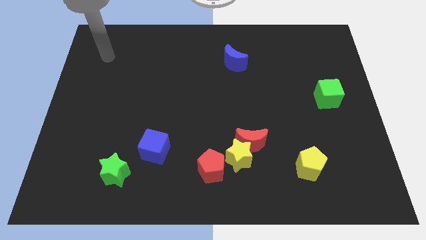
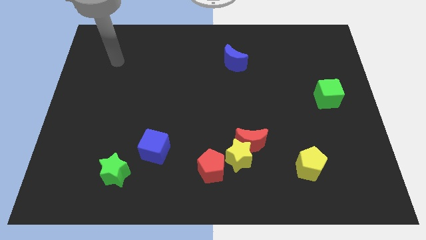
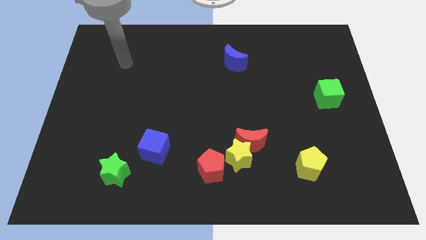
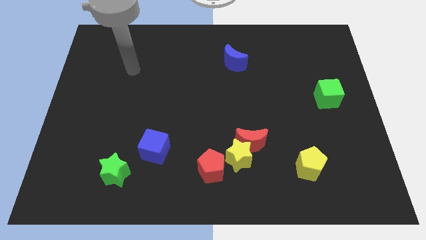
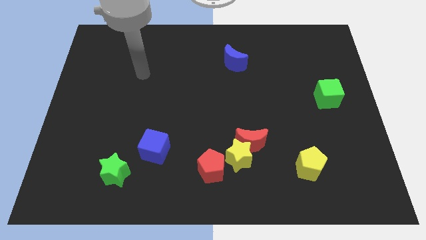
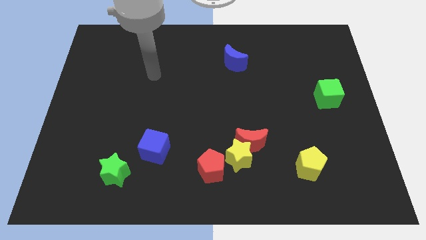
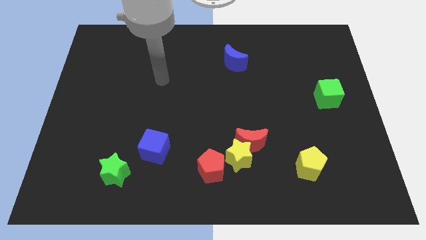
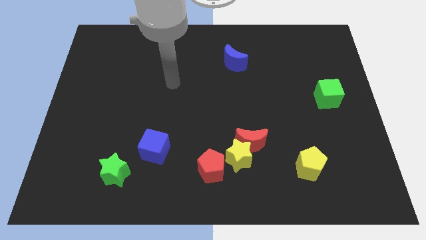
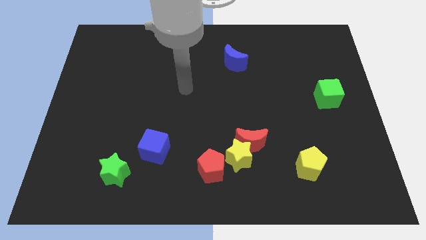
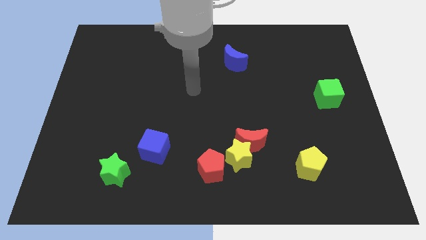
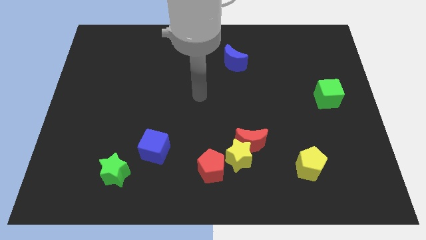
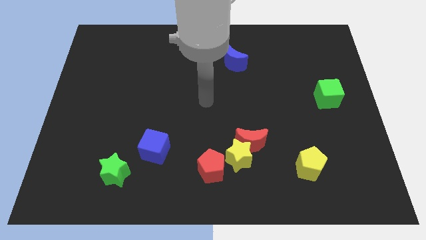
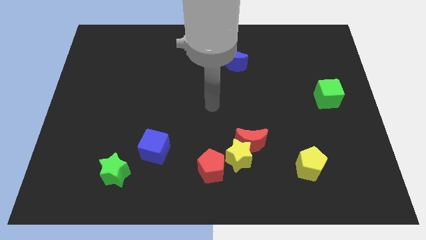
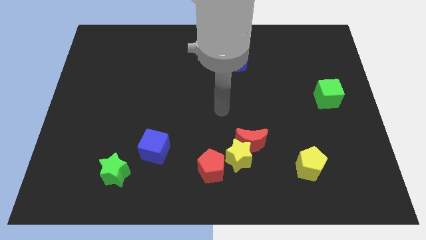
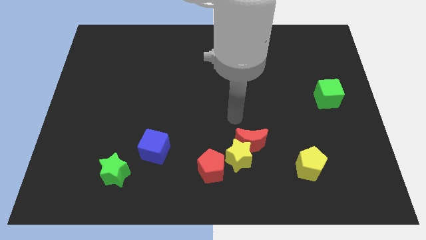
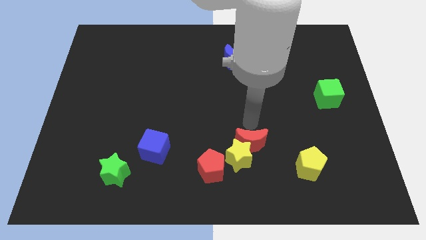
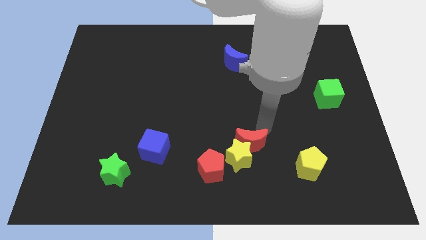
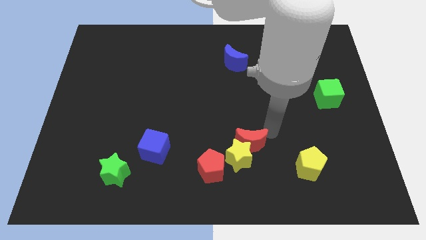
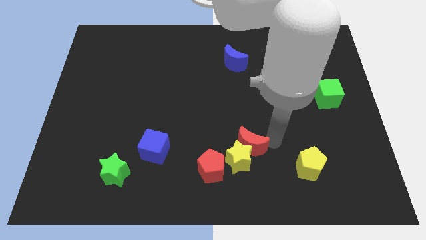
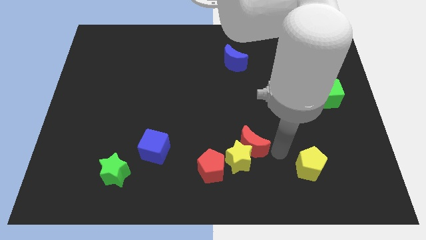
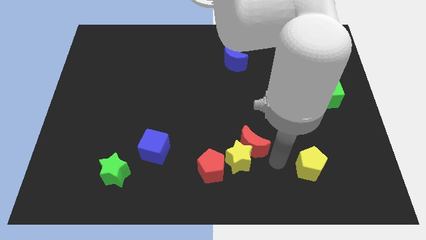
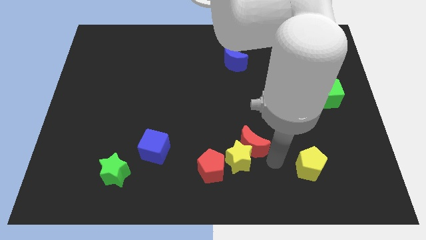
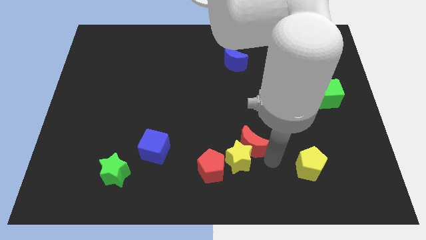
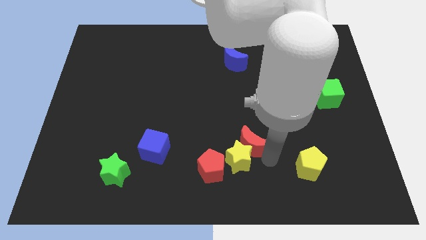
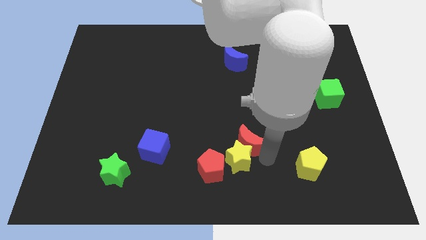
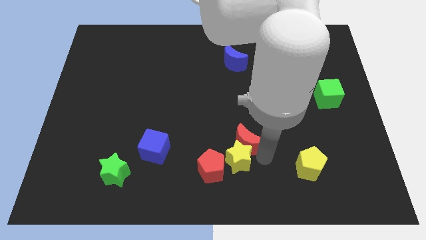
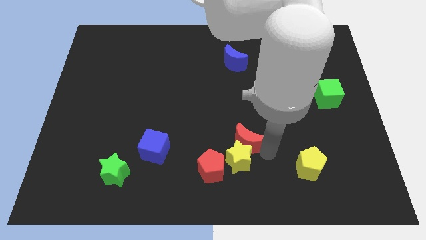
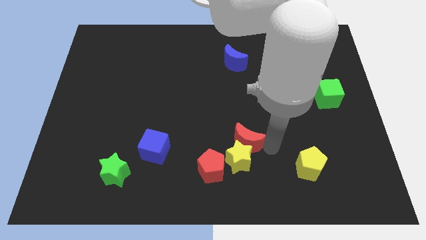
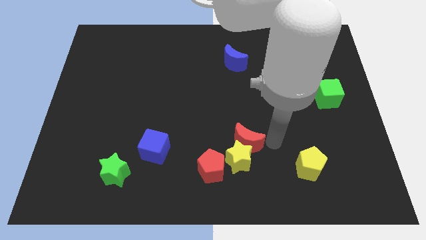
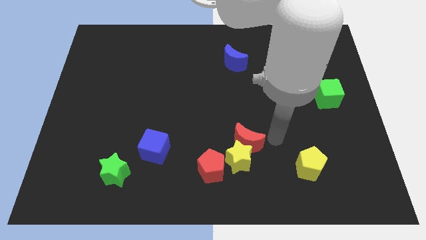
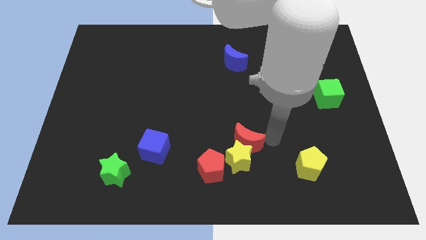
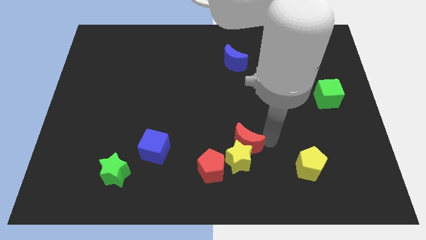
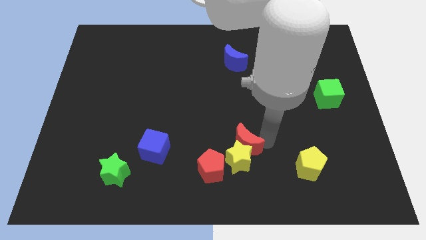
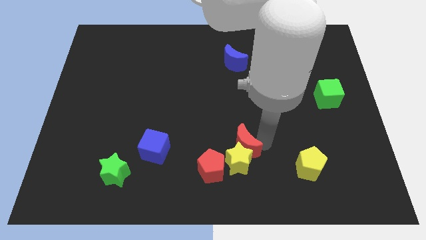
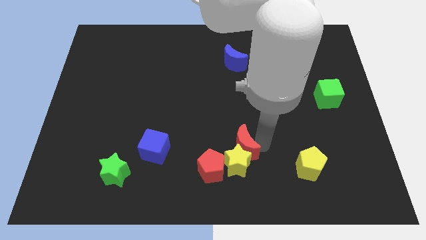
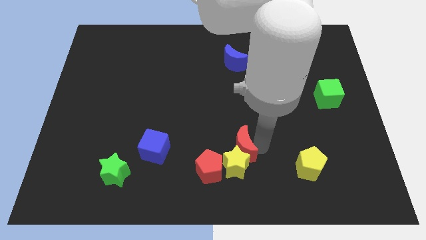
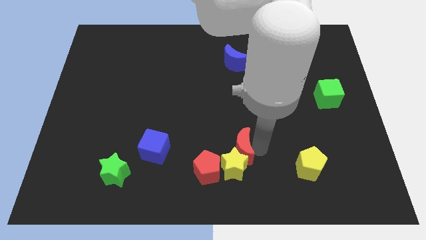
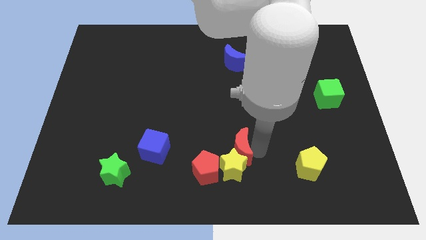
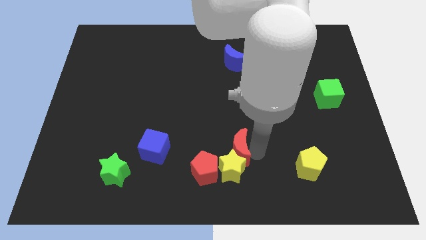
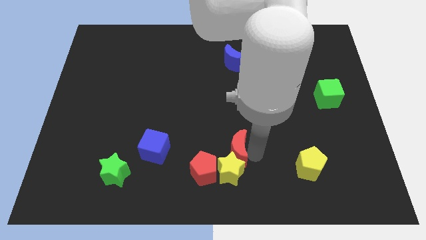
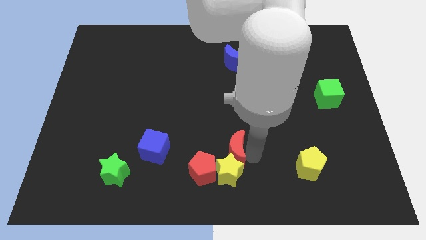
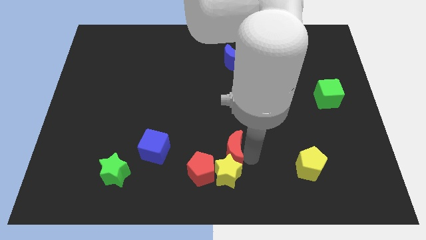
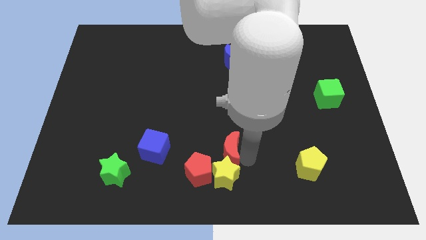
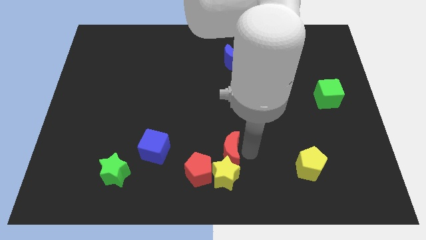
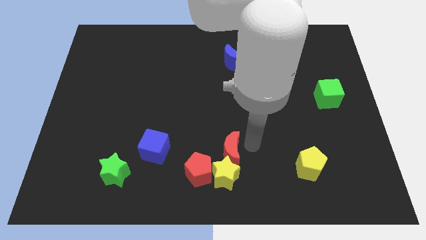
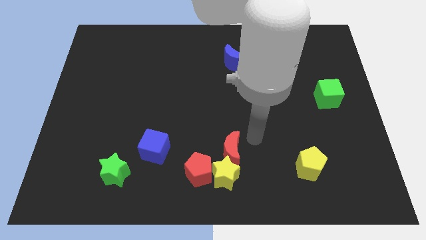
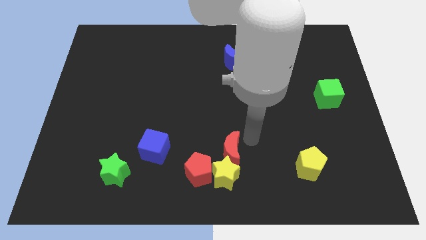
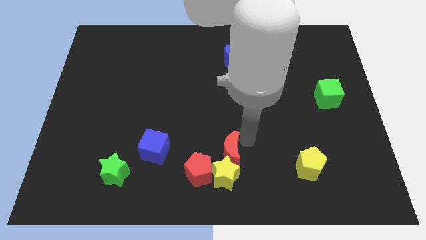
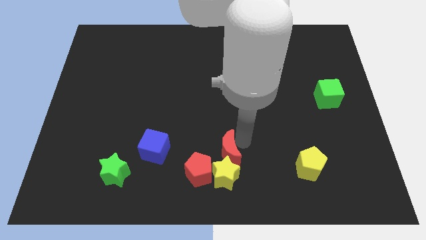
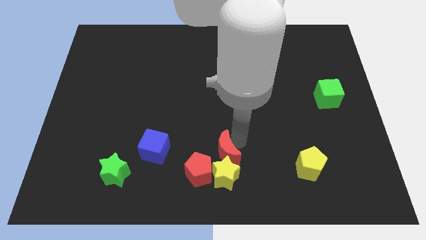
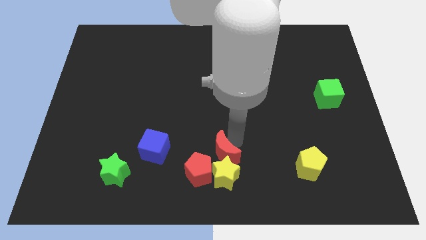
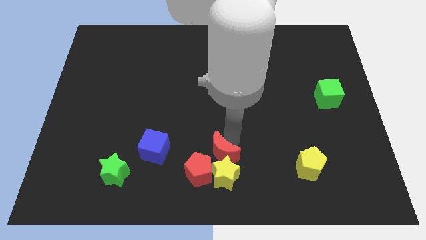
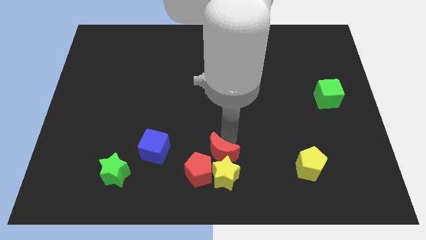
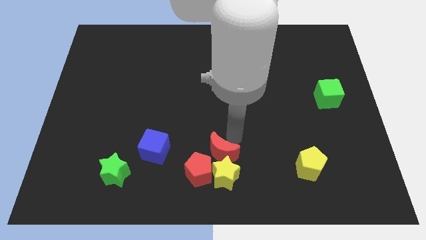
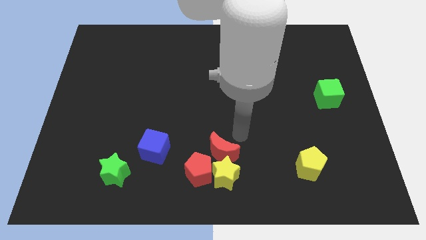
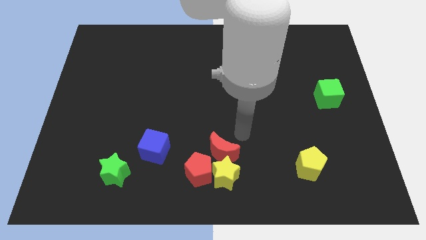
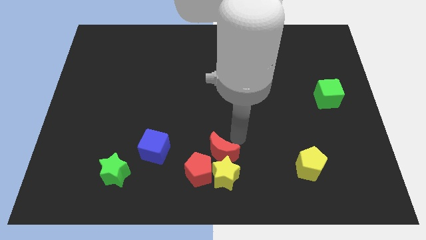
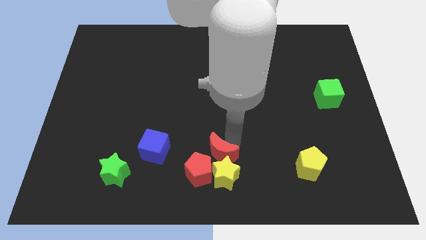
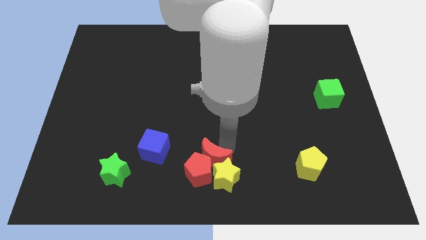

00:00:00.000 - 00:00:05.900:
slide the red moon close to the red pentagon

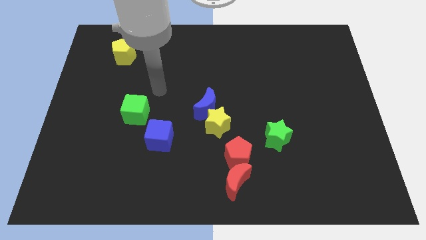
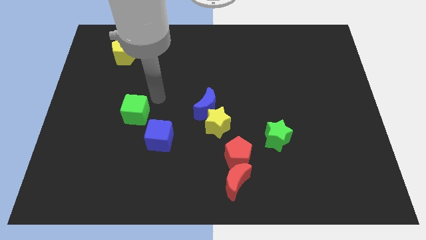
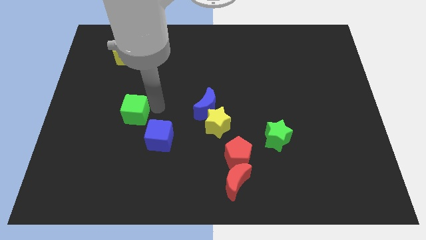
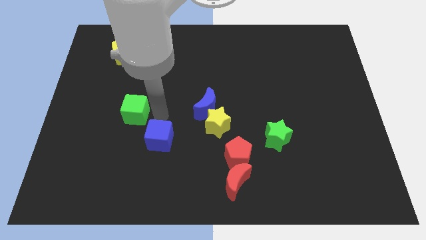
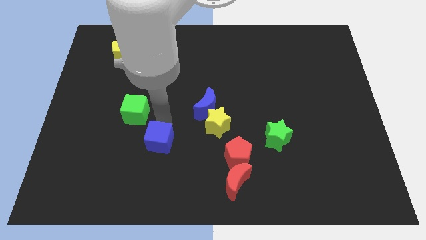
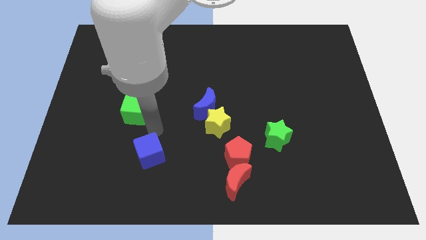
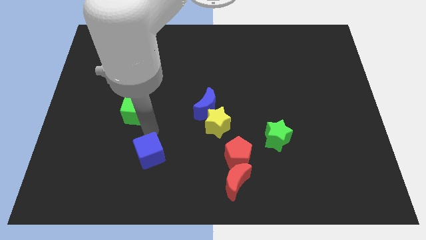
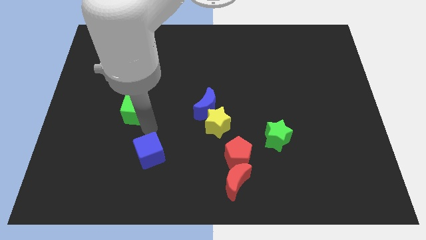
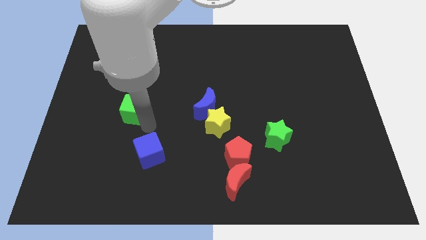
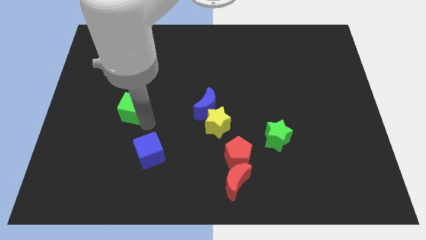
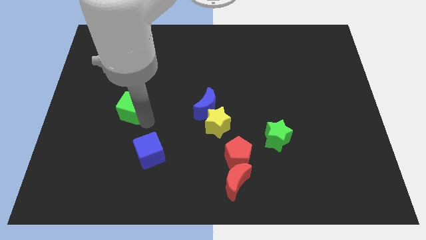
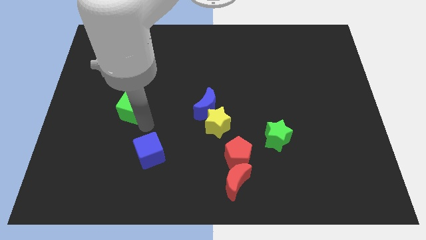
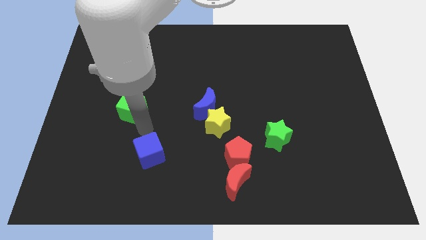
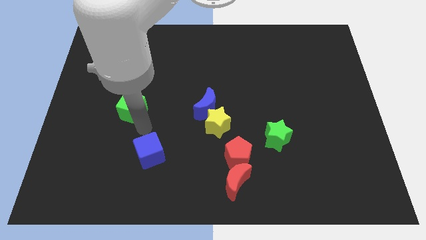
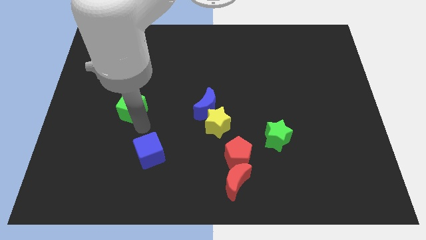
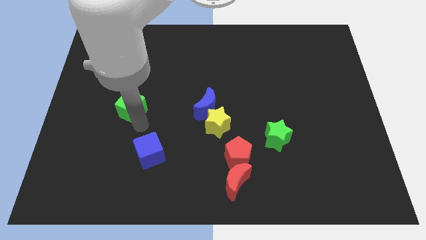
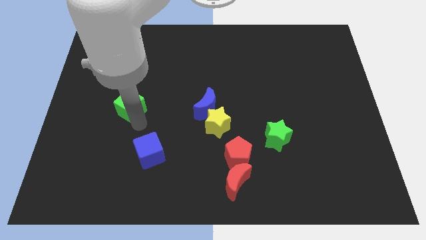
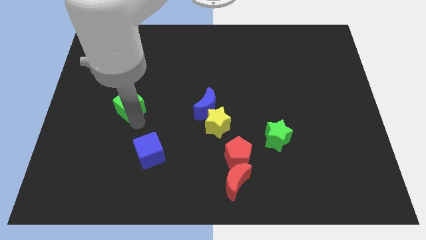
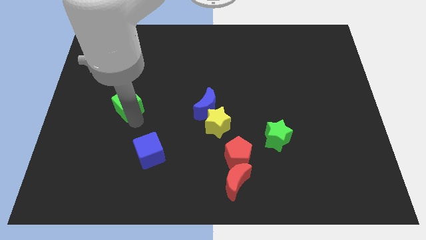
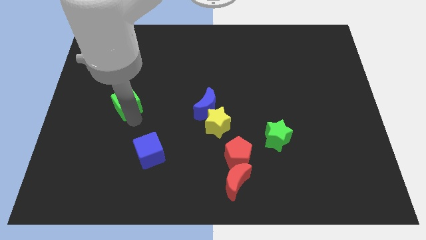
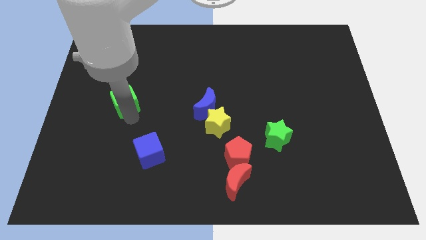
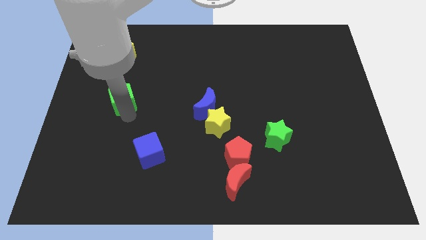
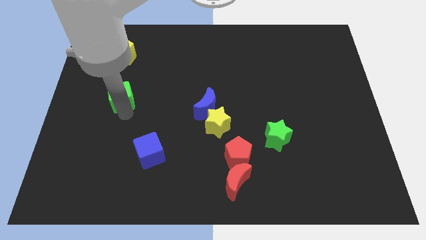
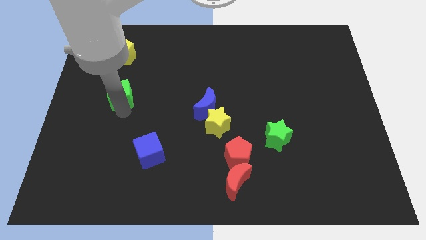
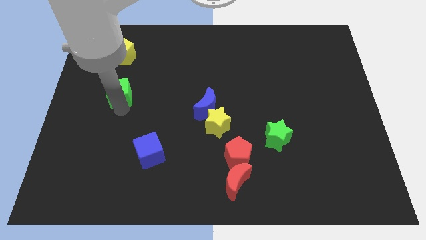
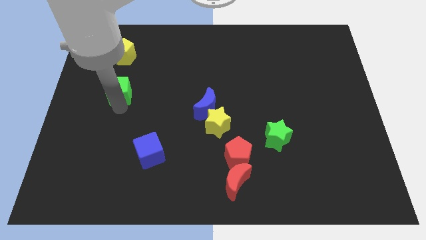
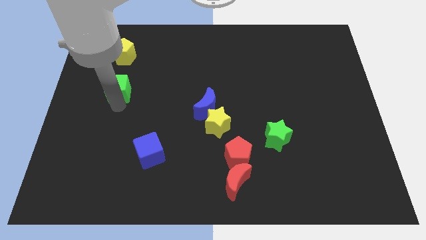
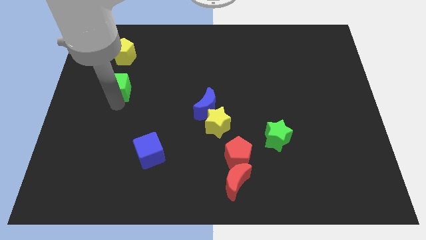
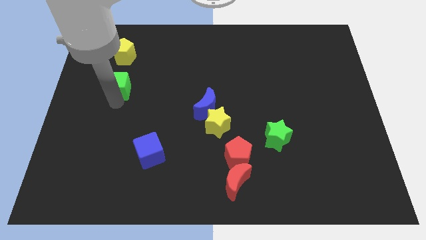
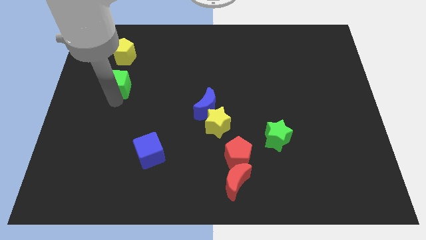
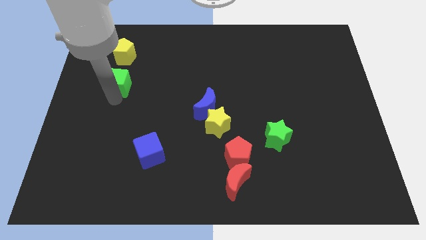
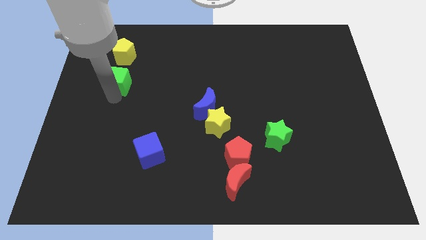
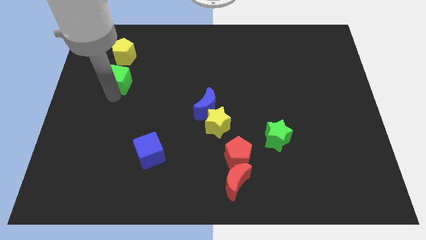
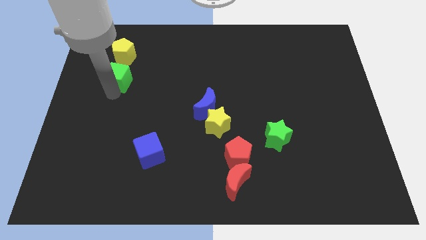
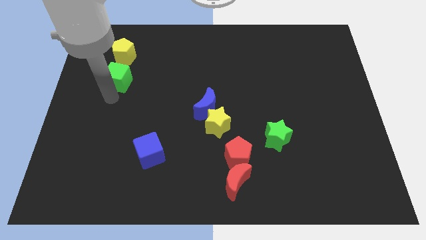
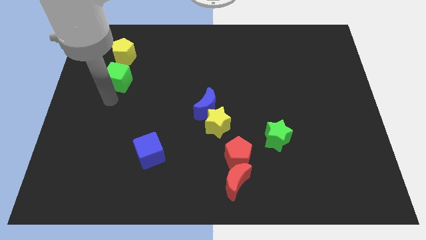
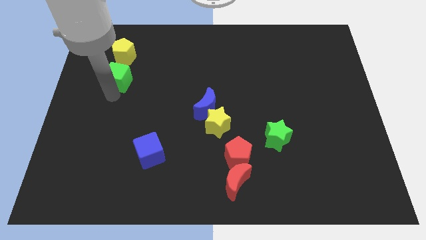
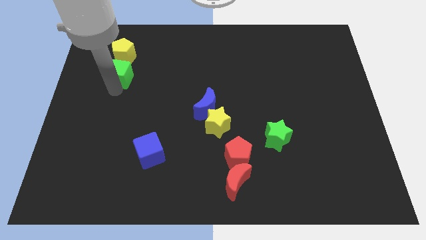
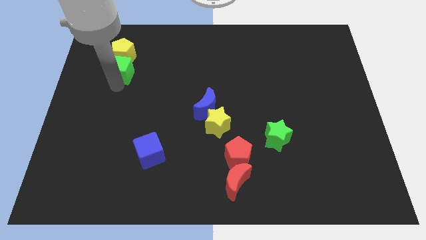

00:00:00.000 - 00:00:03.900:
move the green cube to the yellow pentagon
